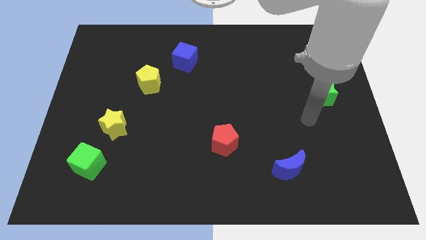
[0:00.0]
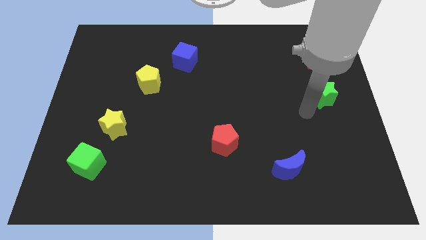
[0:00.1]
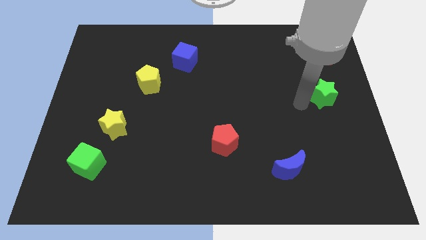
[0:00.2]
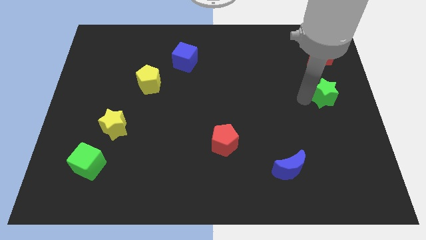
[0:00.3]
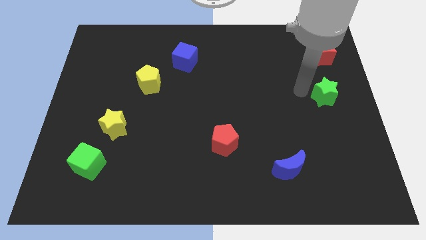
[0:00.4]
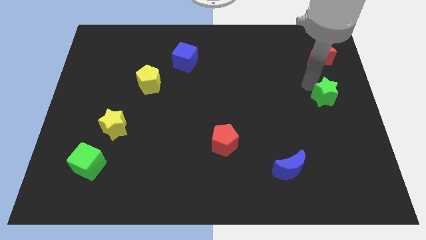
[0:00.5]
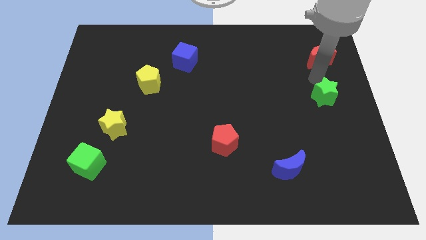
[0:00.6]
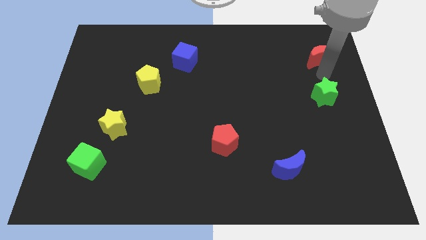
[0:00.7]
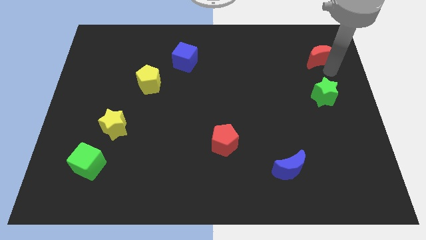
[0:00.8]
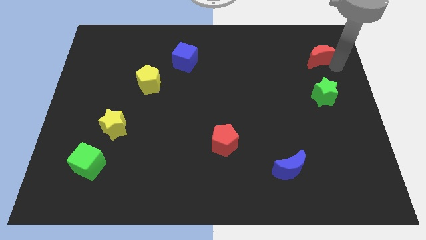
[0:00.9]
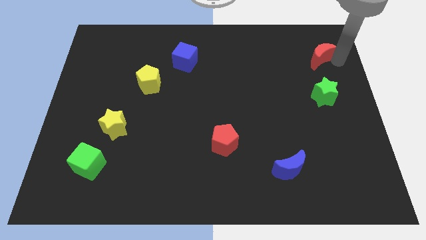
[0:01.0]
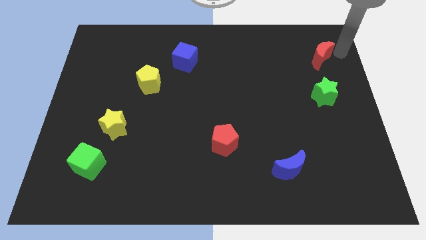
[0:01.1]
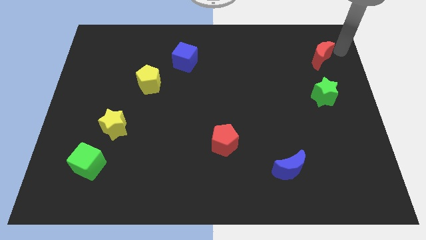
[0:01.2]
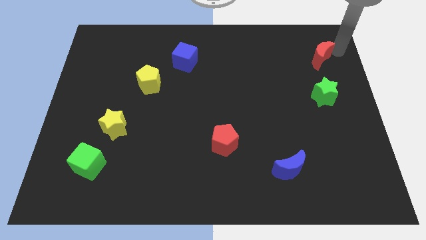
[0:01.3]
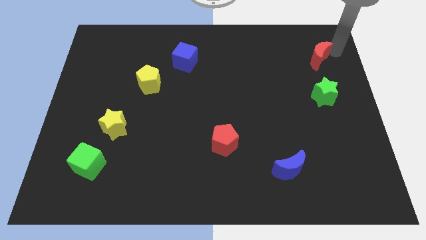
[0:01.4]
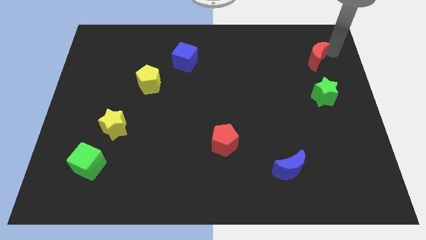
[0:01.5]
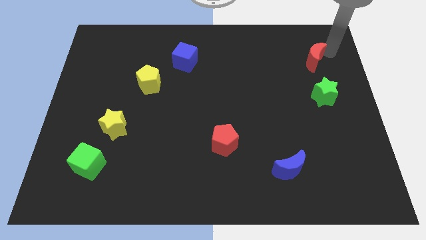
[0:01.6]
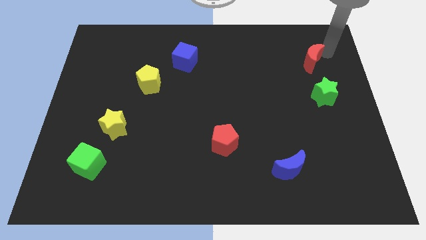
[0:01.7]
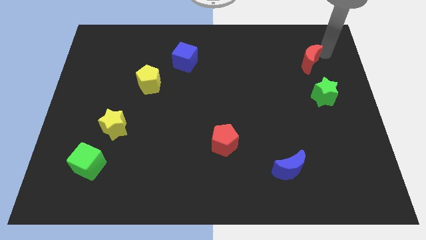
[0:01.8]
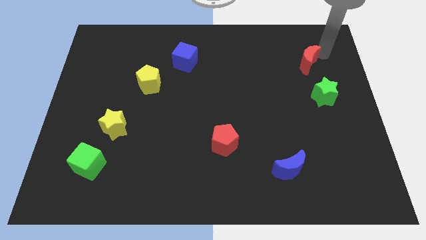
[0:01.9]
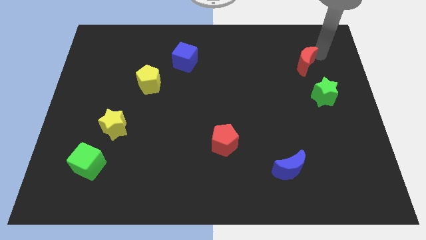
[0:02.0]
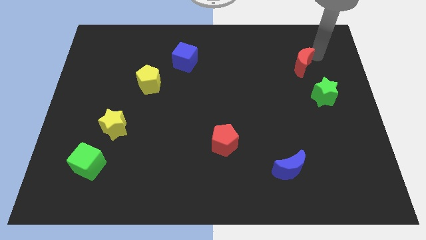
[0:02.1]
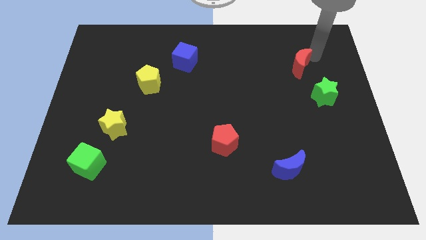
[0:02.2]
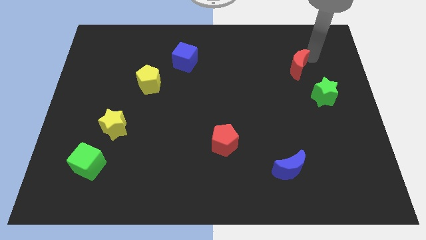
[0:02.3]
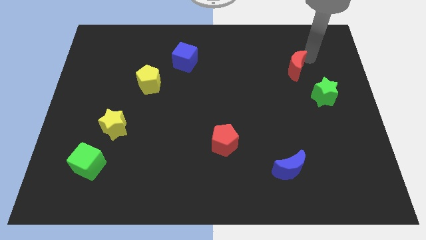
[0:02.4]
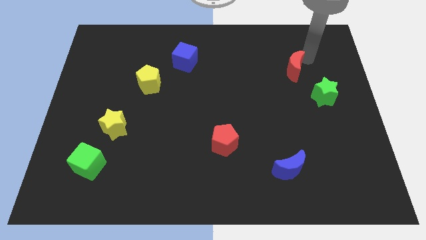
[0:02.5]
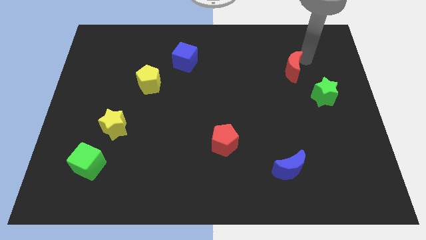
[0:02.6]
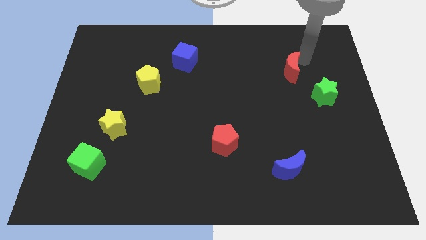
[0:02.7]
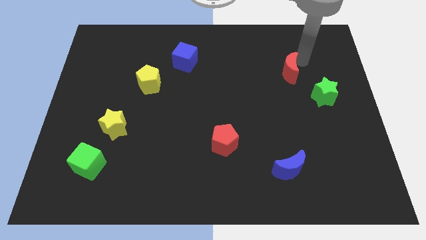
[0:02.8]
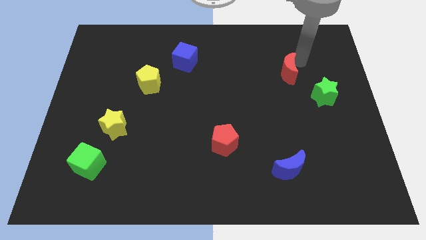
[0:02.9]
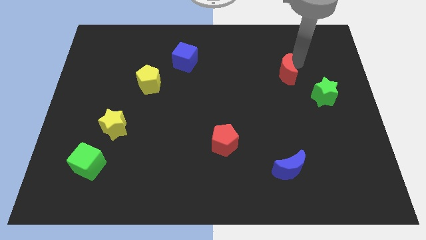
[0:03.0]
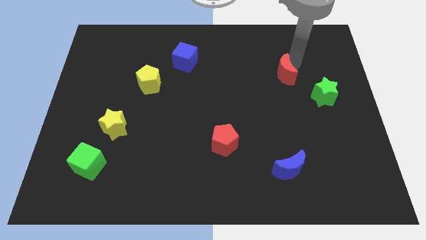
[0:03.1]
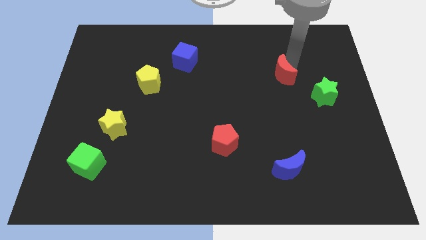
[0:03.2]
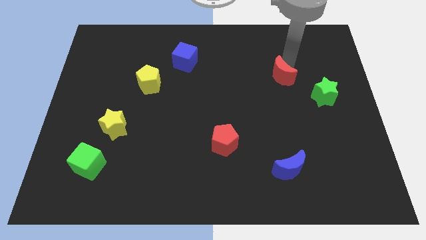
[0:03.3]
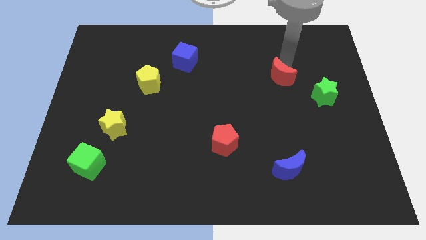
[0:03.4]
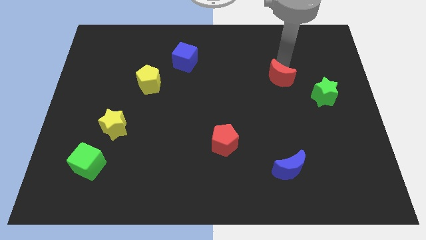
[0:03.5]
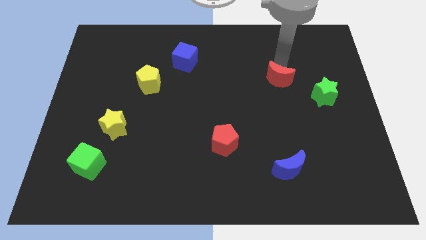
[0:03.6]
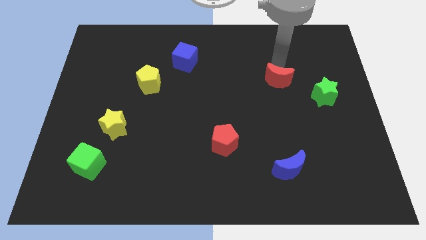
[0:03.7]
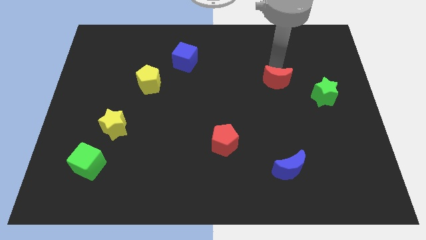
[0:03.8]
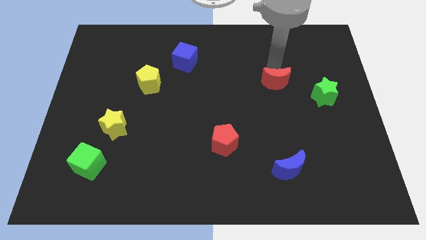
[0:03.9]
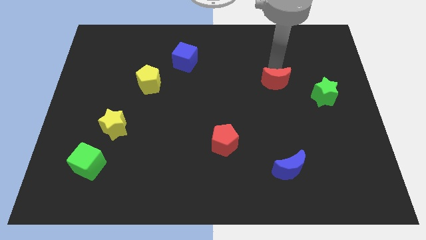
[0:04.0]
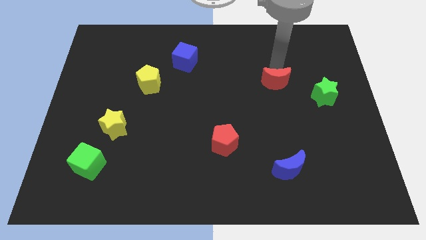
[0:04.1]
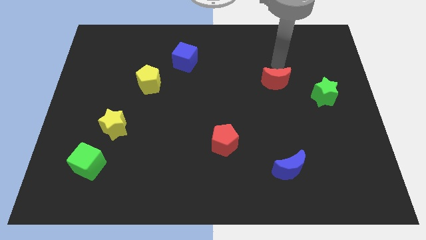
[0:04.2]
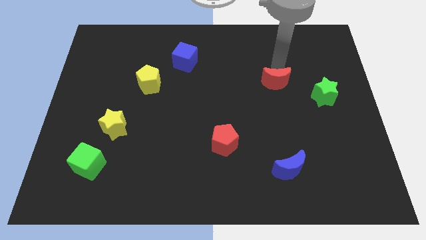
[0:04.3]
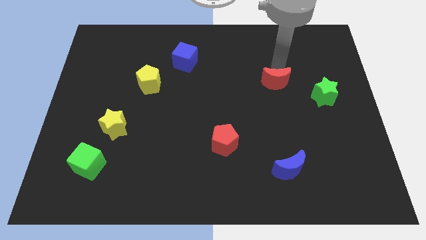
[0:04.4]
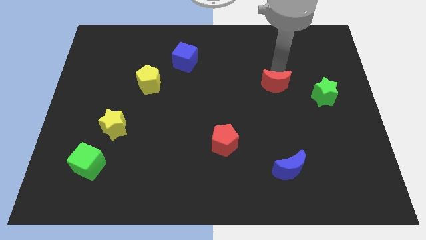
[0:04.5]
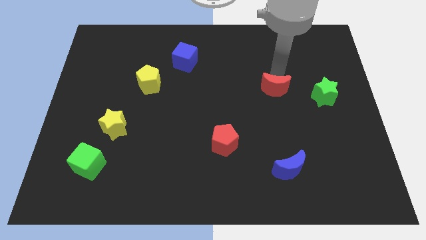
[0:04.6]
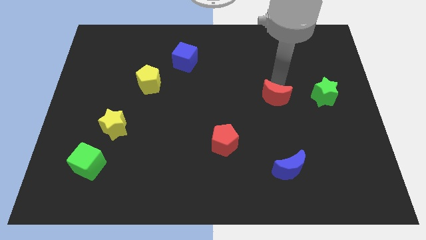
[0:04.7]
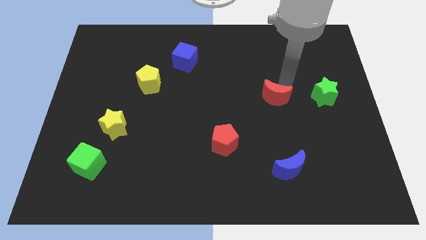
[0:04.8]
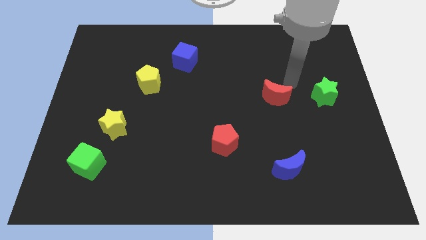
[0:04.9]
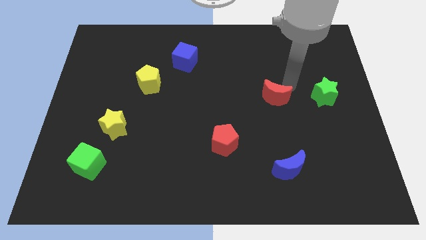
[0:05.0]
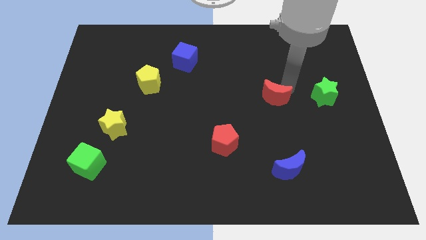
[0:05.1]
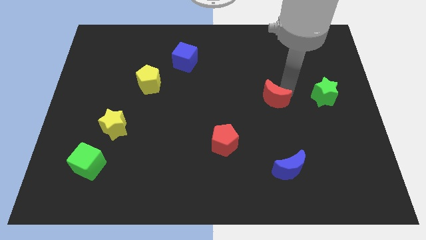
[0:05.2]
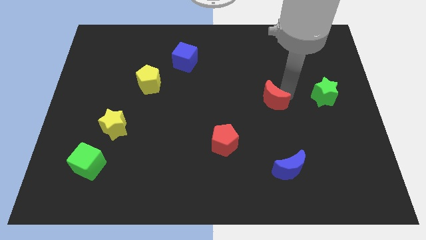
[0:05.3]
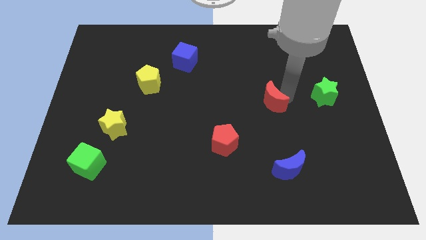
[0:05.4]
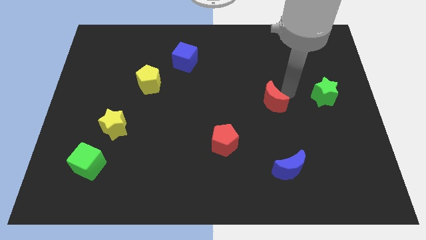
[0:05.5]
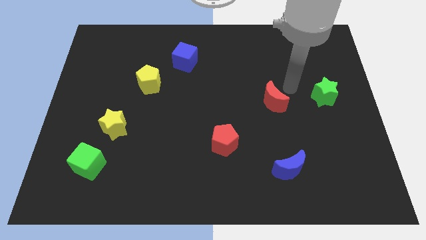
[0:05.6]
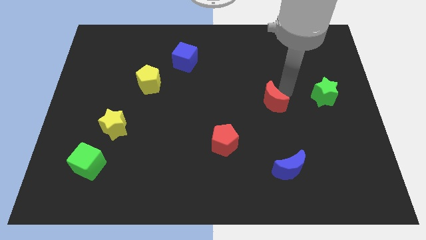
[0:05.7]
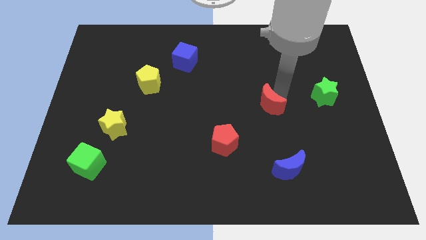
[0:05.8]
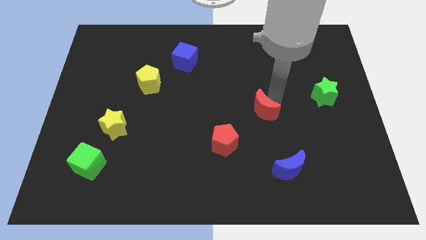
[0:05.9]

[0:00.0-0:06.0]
move the red moon to the top right of the red pentagon
